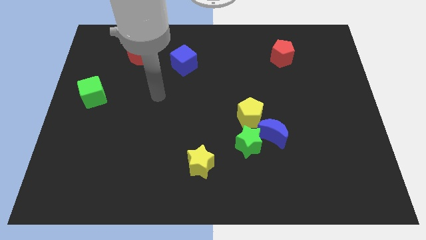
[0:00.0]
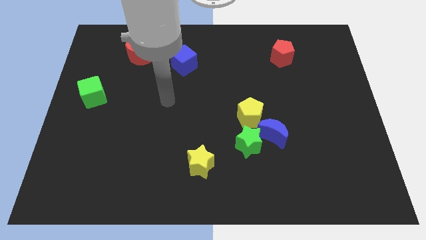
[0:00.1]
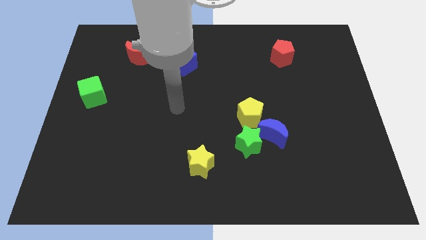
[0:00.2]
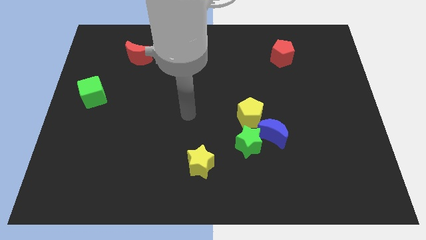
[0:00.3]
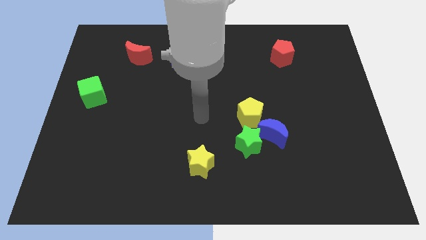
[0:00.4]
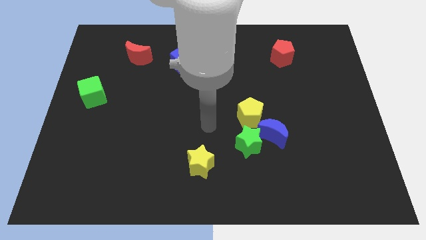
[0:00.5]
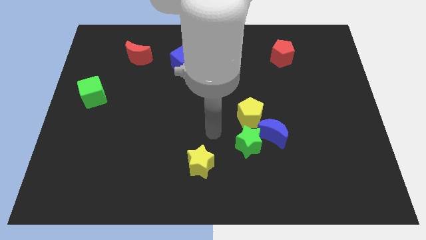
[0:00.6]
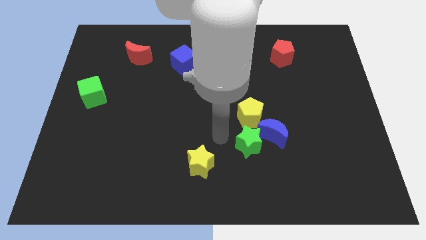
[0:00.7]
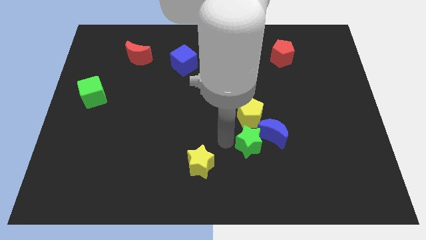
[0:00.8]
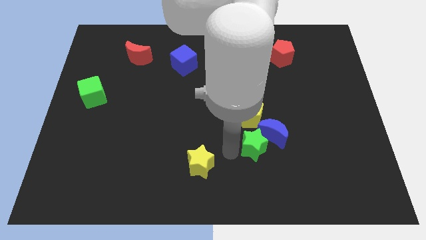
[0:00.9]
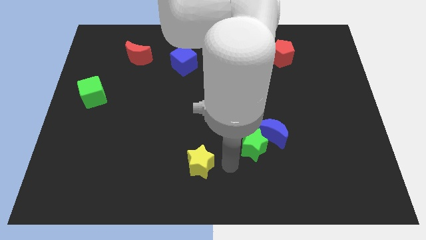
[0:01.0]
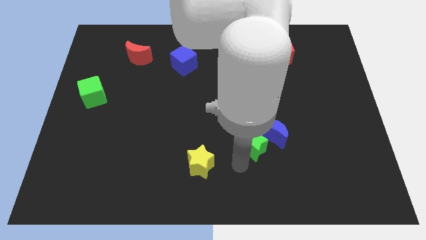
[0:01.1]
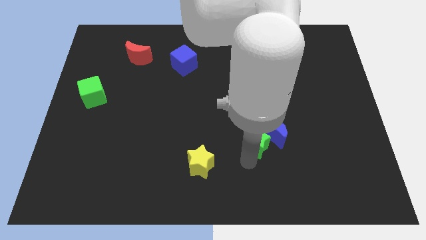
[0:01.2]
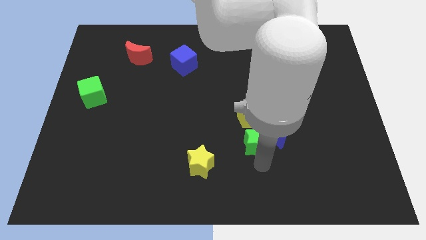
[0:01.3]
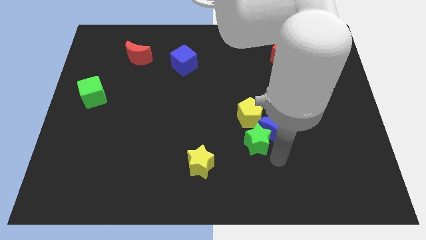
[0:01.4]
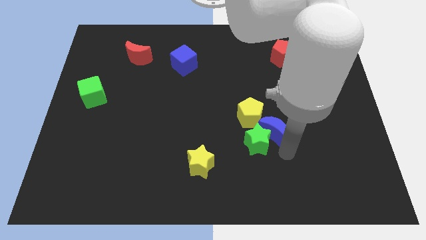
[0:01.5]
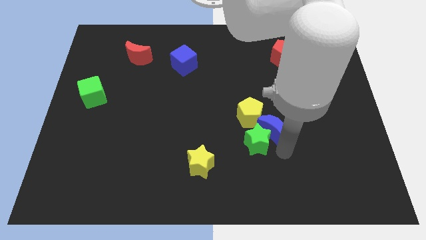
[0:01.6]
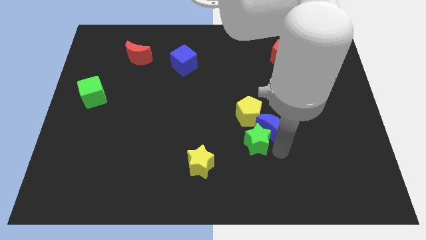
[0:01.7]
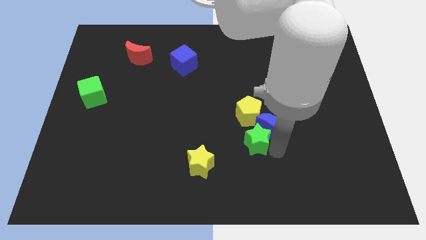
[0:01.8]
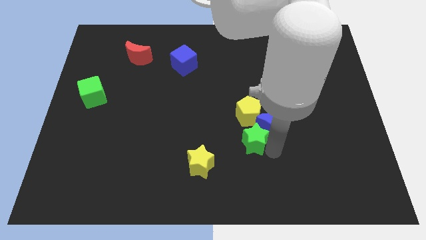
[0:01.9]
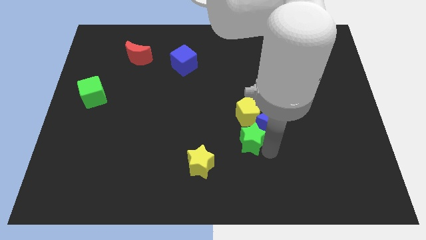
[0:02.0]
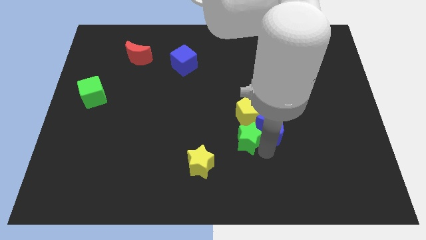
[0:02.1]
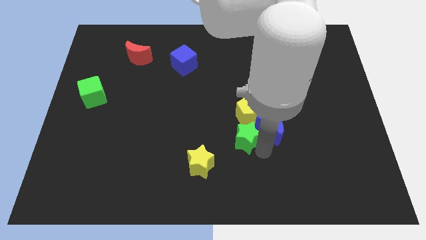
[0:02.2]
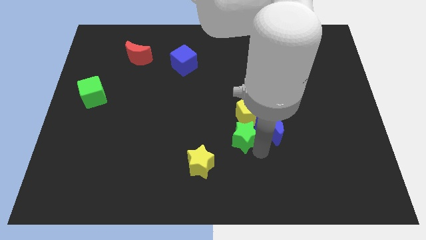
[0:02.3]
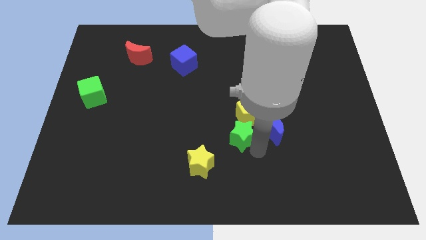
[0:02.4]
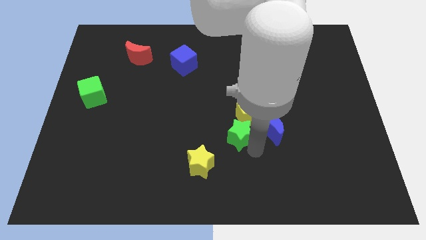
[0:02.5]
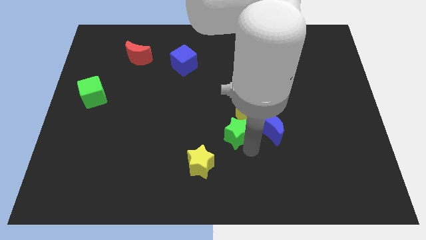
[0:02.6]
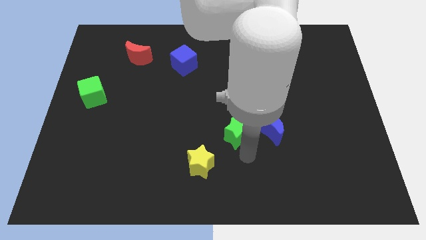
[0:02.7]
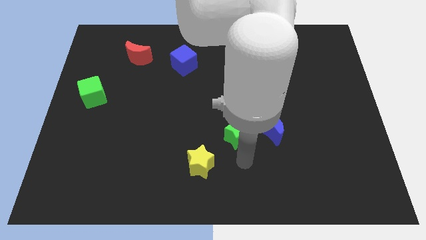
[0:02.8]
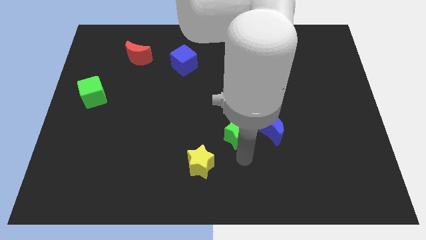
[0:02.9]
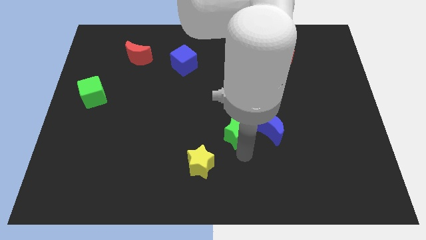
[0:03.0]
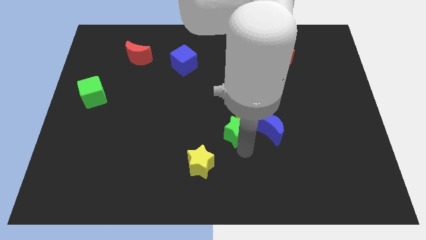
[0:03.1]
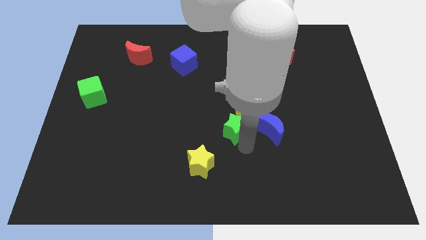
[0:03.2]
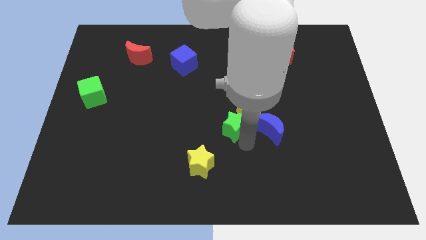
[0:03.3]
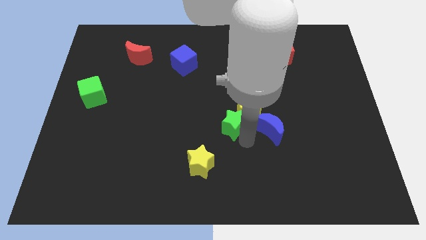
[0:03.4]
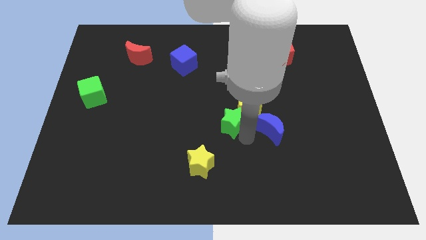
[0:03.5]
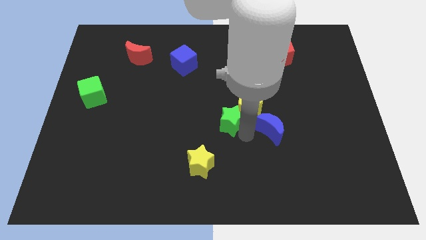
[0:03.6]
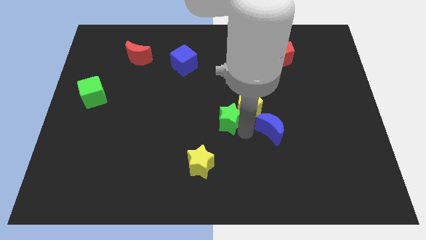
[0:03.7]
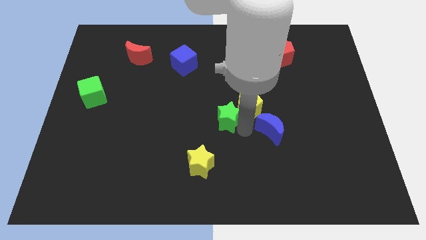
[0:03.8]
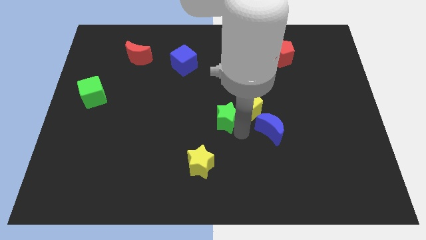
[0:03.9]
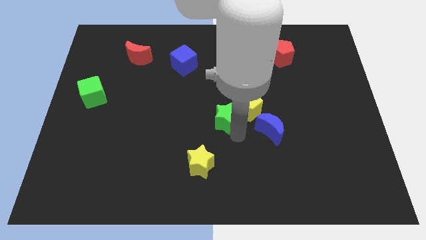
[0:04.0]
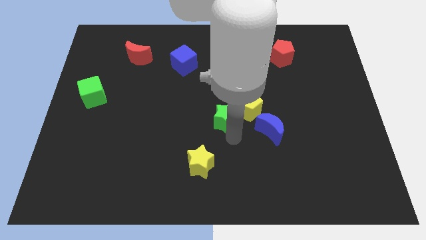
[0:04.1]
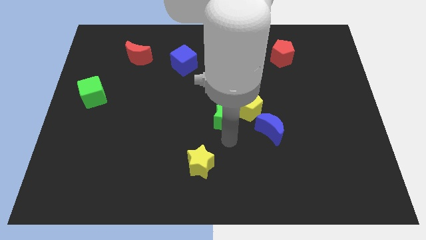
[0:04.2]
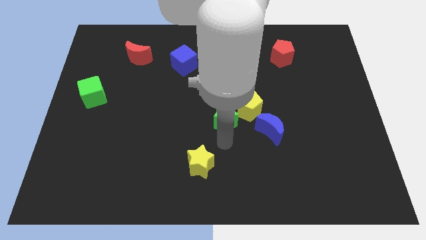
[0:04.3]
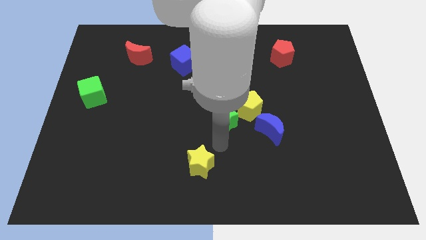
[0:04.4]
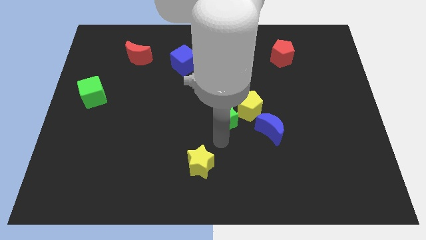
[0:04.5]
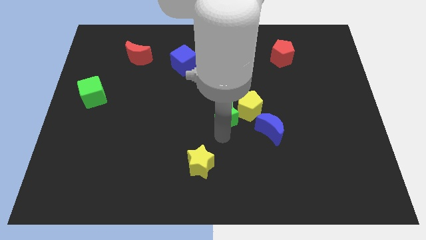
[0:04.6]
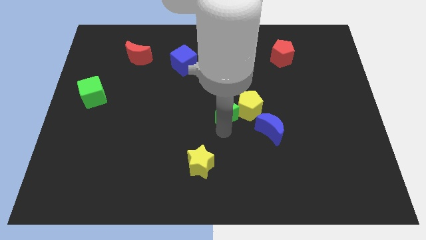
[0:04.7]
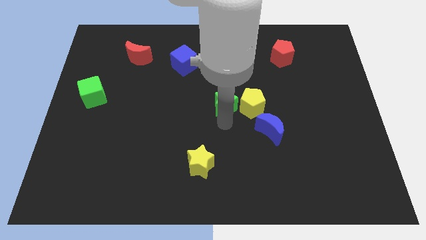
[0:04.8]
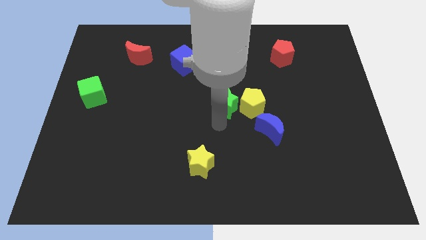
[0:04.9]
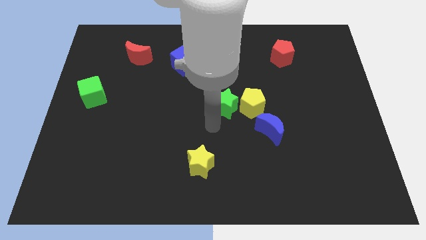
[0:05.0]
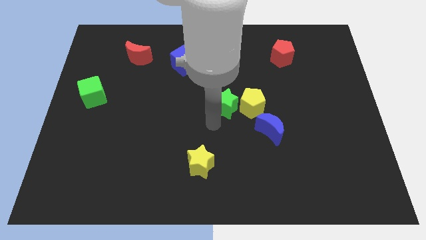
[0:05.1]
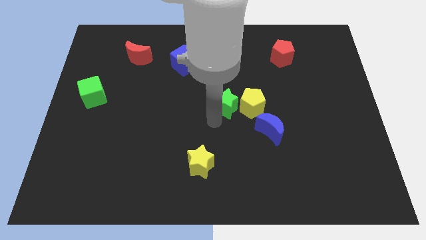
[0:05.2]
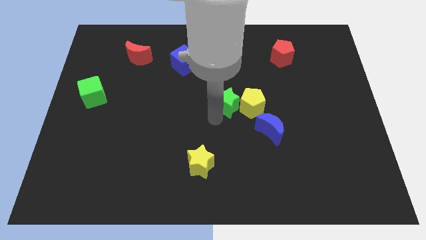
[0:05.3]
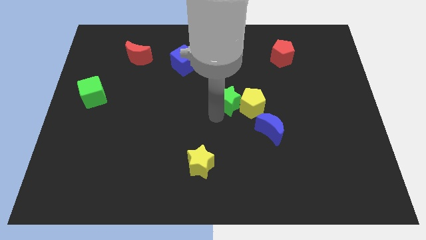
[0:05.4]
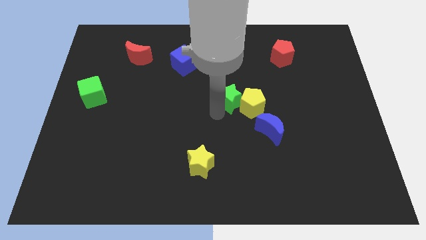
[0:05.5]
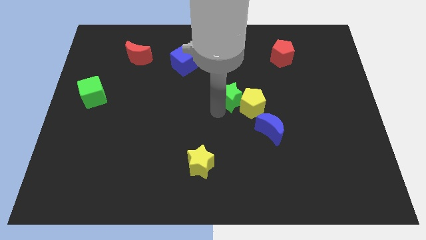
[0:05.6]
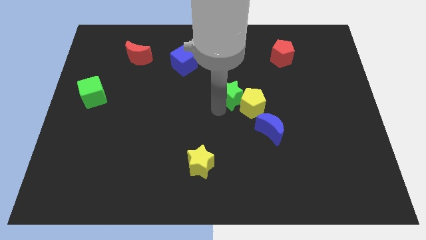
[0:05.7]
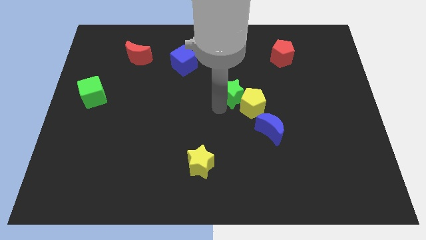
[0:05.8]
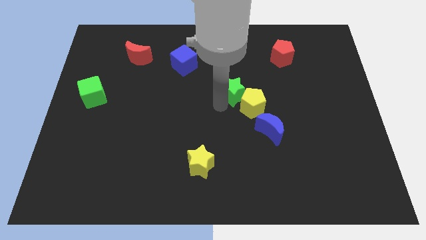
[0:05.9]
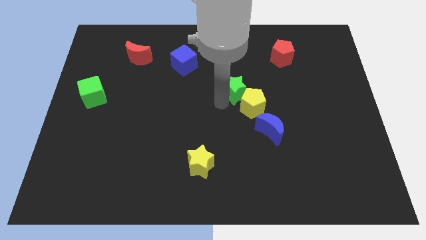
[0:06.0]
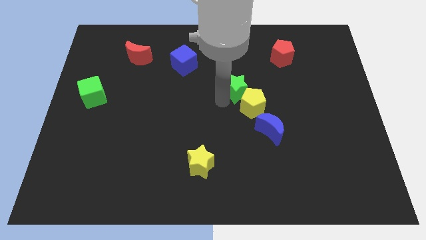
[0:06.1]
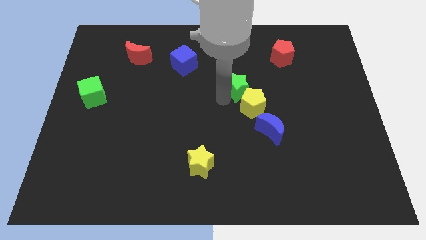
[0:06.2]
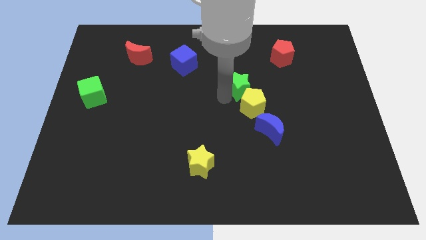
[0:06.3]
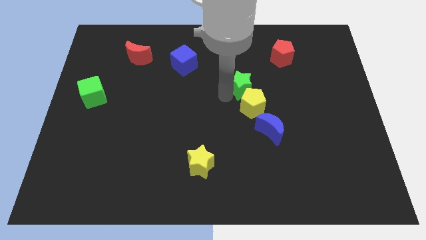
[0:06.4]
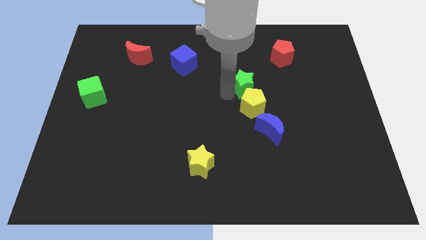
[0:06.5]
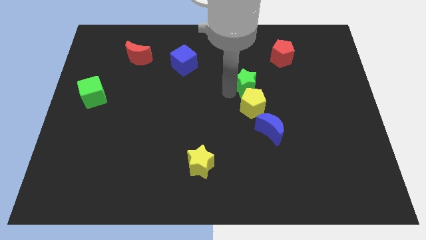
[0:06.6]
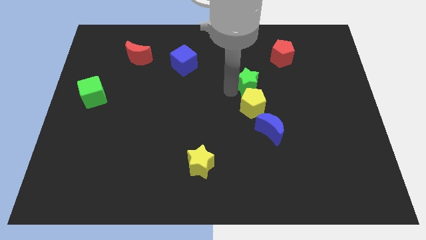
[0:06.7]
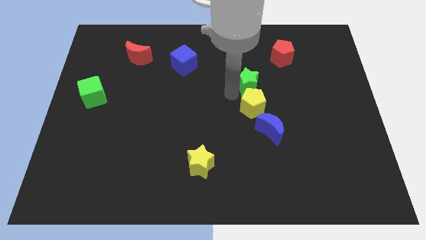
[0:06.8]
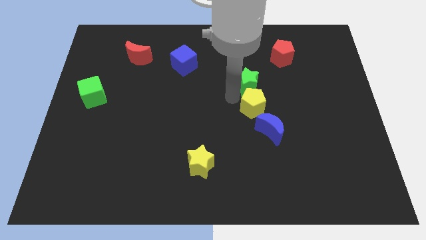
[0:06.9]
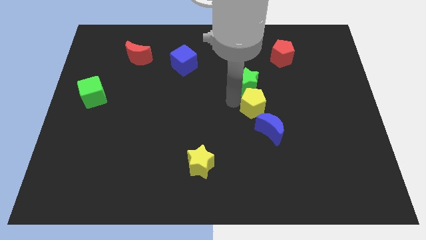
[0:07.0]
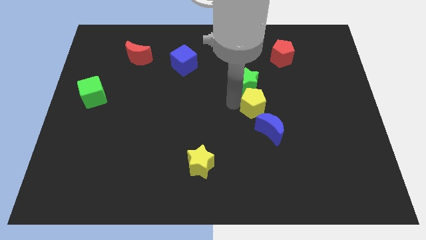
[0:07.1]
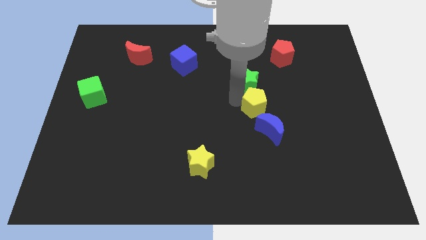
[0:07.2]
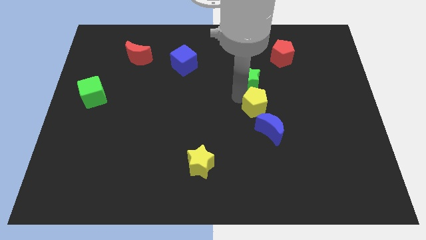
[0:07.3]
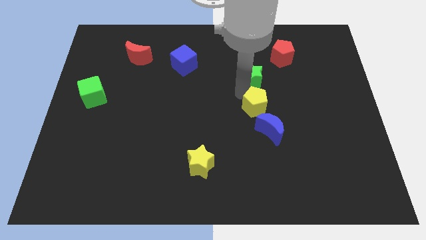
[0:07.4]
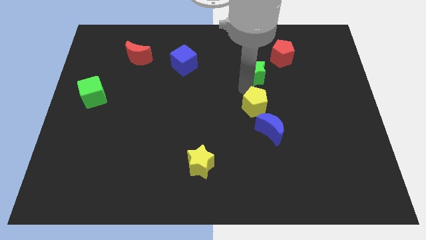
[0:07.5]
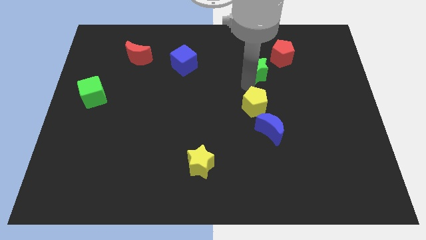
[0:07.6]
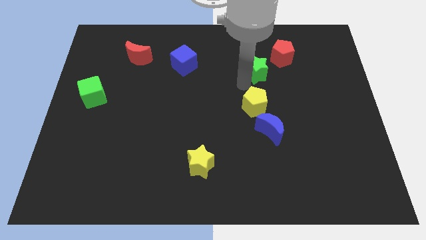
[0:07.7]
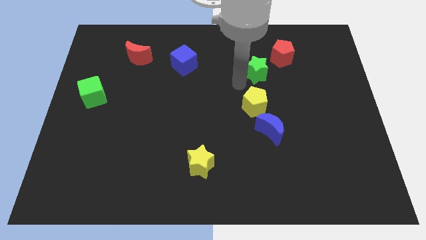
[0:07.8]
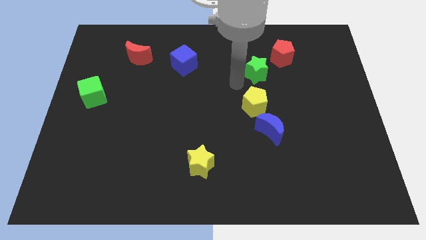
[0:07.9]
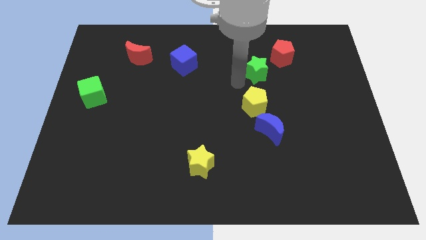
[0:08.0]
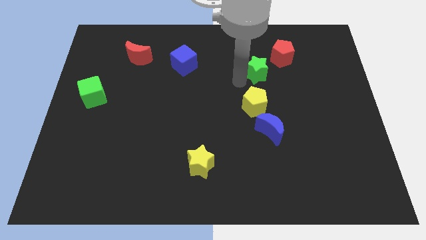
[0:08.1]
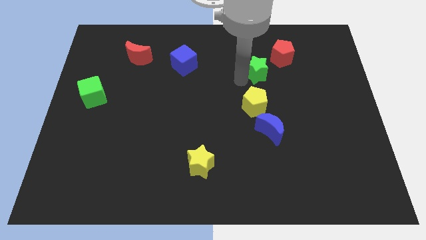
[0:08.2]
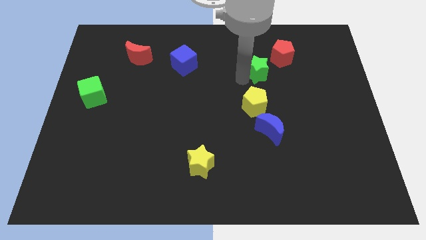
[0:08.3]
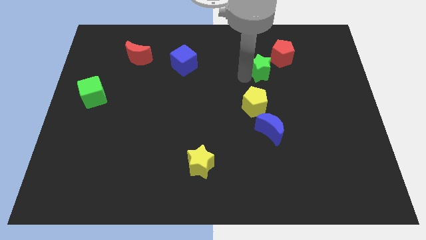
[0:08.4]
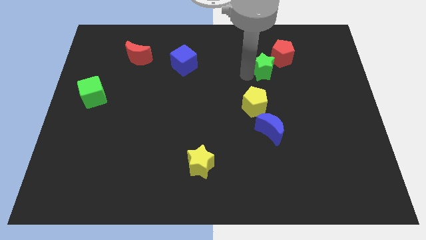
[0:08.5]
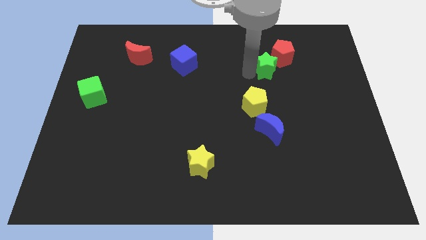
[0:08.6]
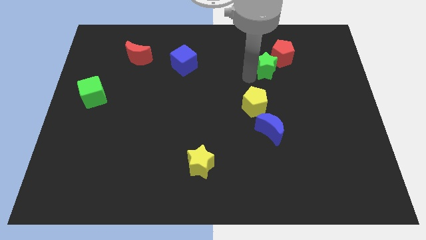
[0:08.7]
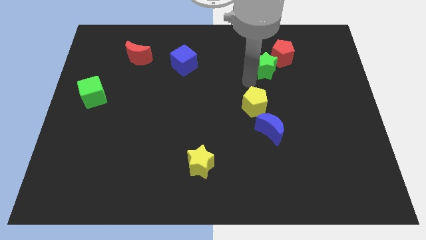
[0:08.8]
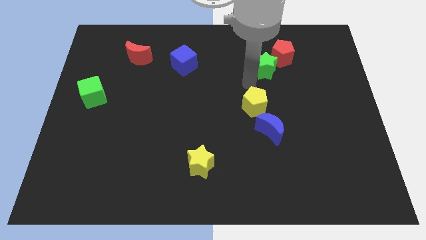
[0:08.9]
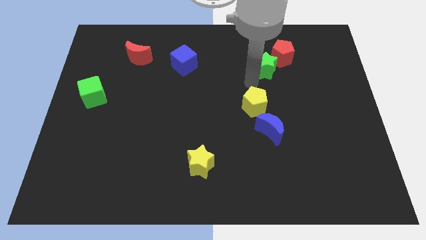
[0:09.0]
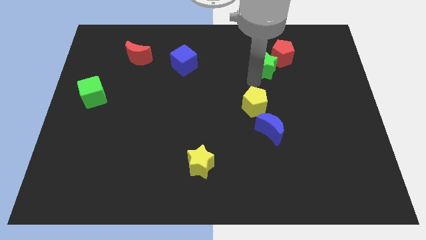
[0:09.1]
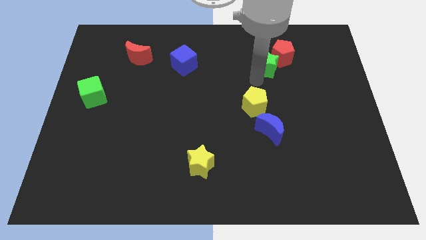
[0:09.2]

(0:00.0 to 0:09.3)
push the green star towards the red pentagon
